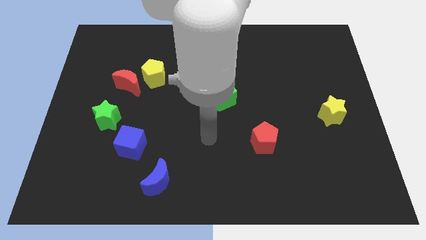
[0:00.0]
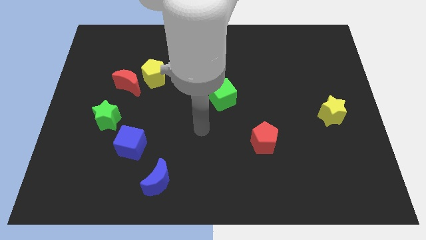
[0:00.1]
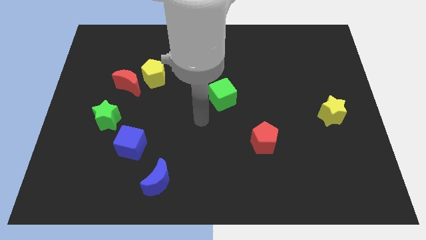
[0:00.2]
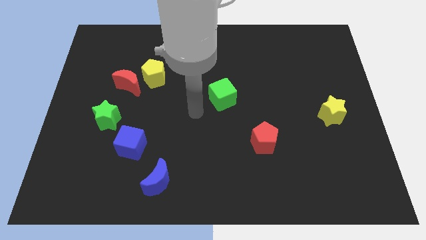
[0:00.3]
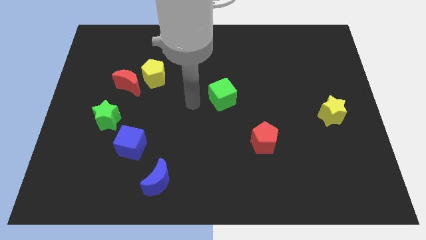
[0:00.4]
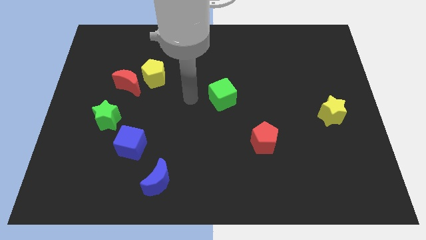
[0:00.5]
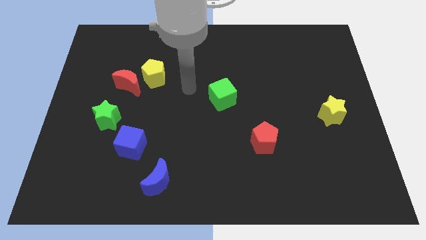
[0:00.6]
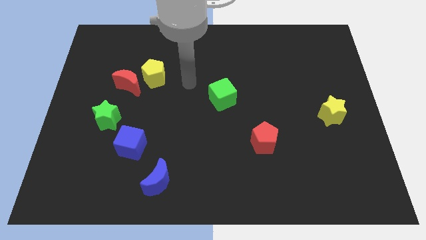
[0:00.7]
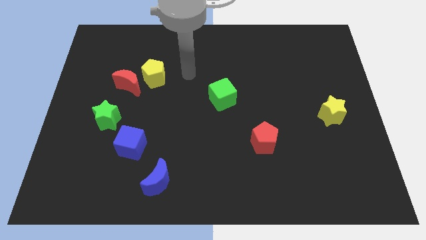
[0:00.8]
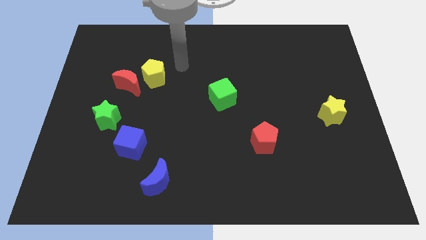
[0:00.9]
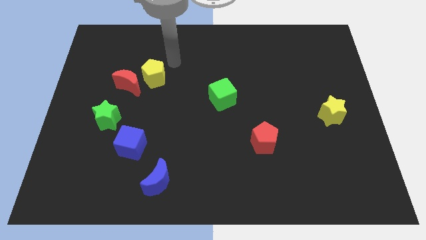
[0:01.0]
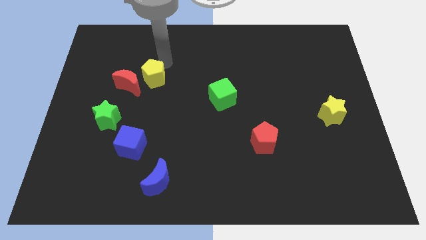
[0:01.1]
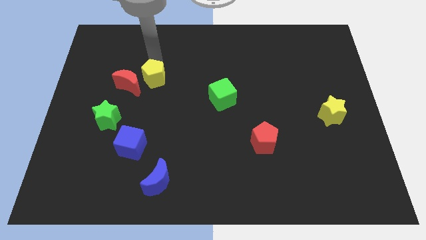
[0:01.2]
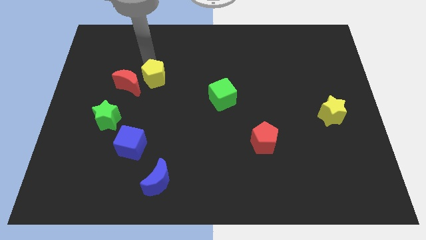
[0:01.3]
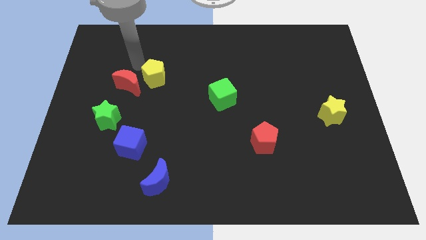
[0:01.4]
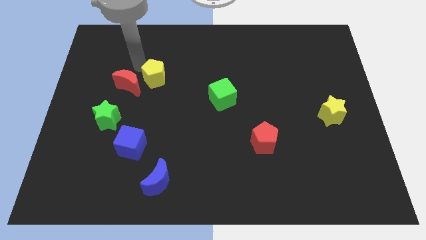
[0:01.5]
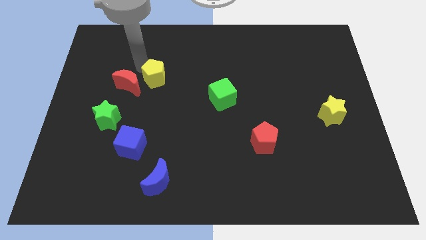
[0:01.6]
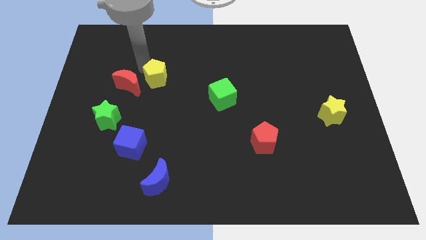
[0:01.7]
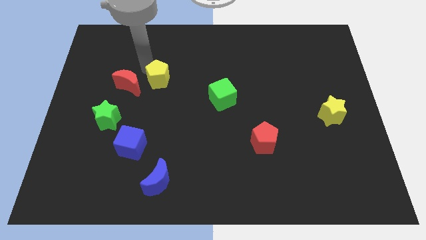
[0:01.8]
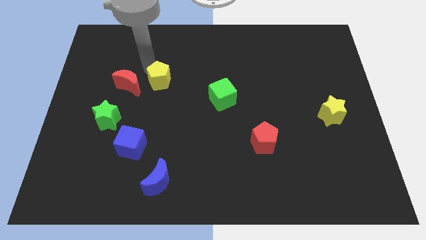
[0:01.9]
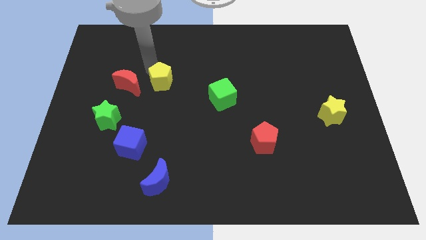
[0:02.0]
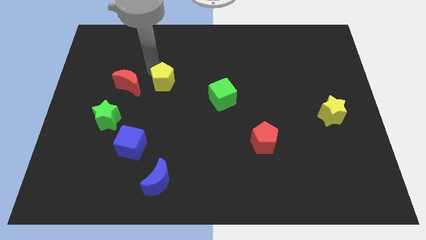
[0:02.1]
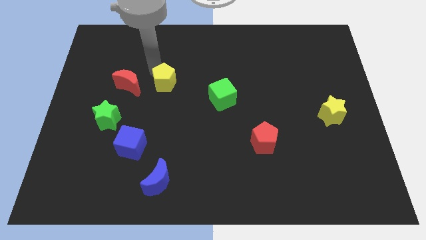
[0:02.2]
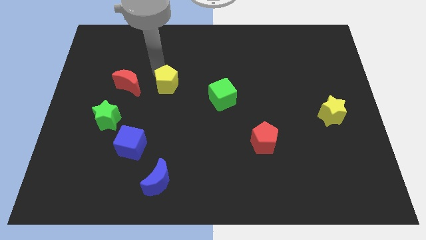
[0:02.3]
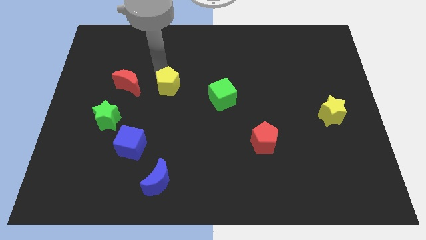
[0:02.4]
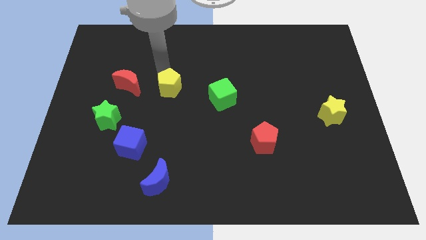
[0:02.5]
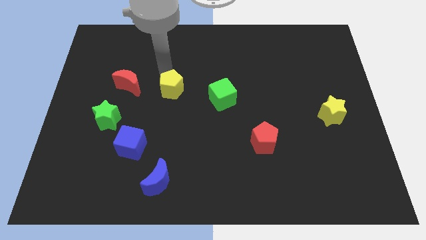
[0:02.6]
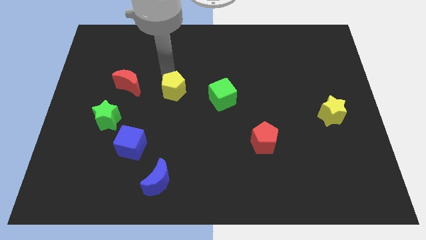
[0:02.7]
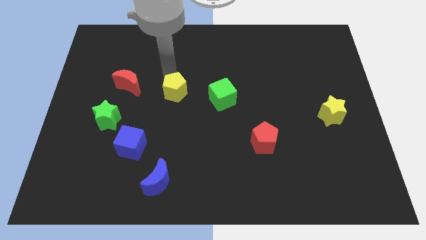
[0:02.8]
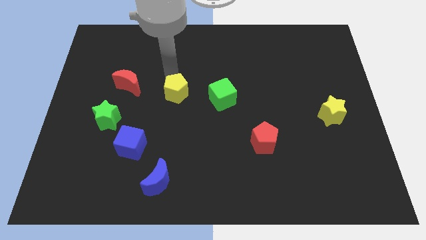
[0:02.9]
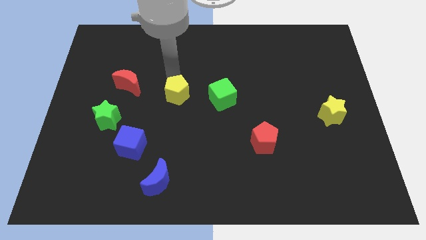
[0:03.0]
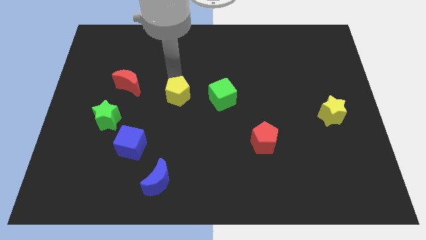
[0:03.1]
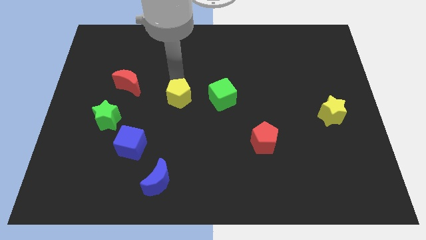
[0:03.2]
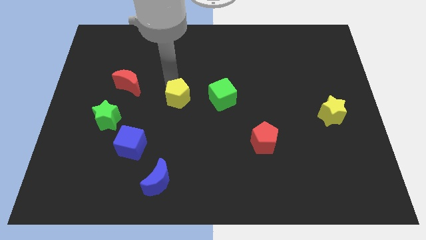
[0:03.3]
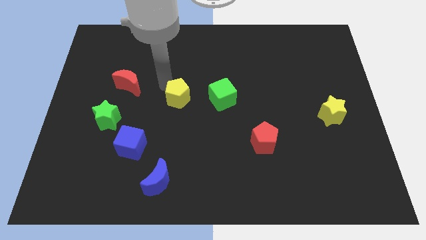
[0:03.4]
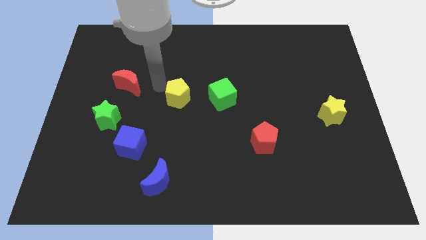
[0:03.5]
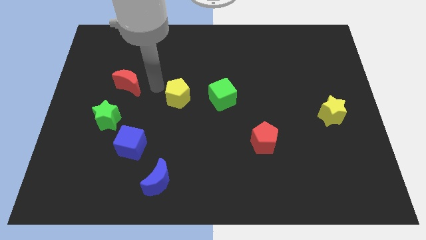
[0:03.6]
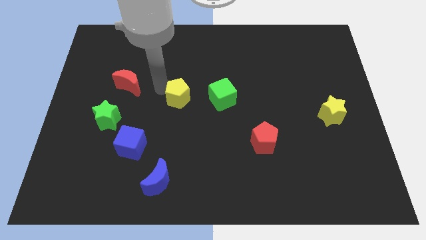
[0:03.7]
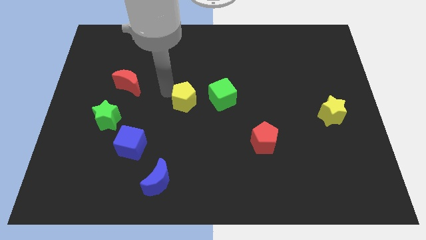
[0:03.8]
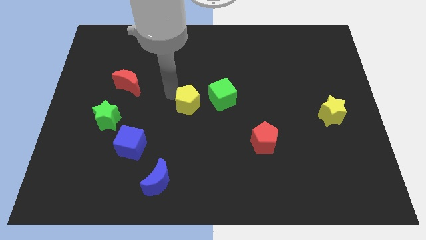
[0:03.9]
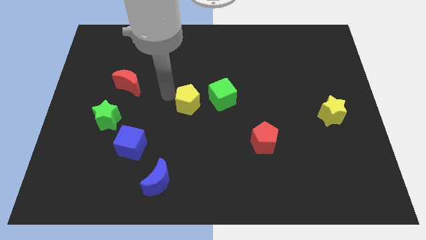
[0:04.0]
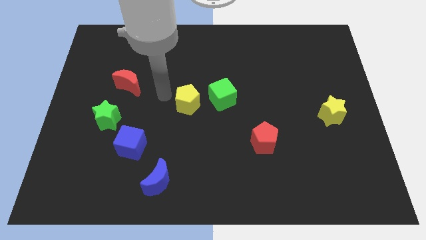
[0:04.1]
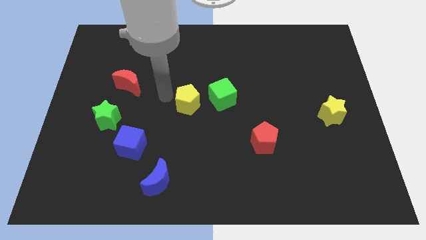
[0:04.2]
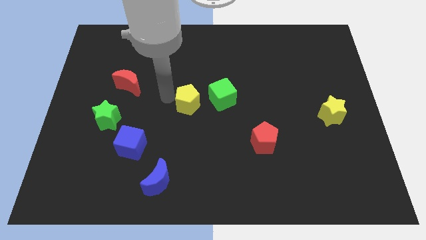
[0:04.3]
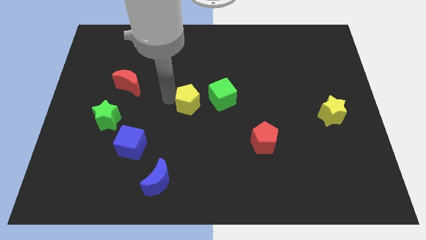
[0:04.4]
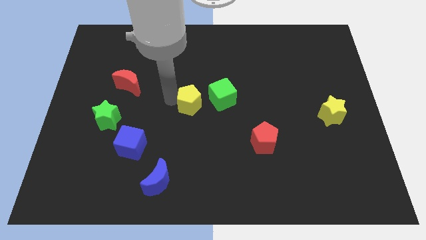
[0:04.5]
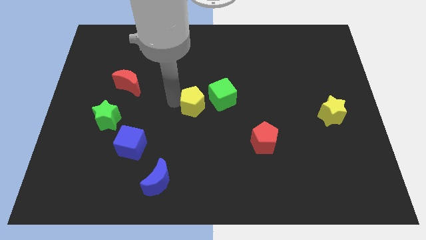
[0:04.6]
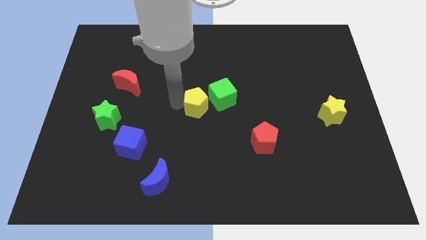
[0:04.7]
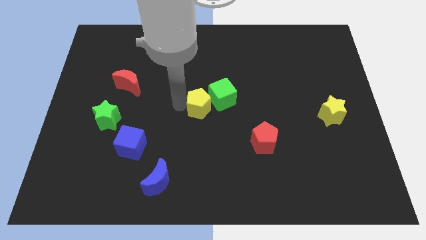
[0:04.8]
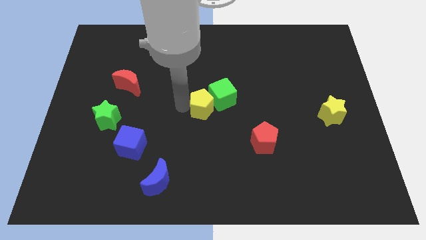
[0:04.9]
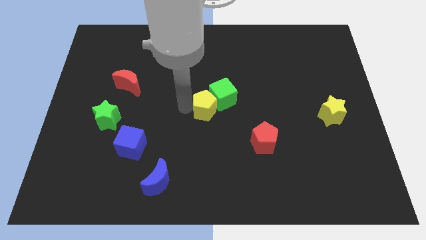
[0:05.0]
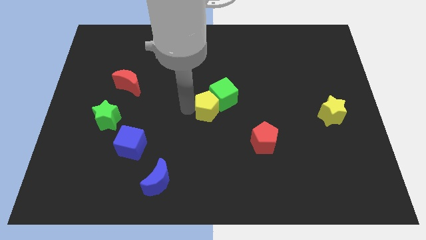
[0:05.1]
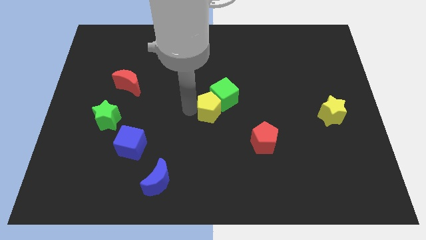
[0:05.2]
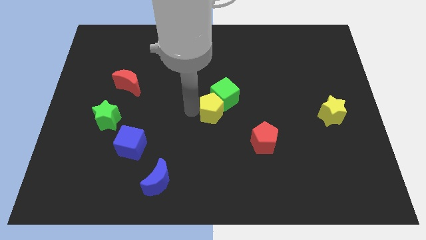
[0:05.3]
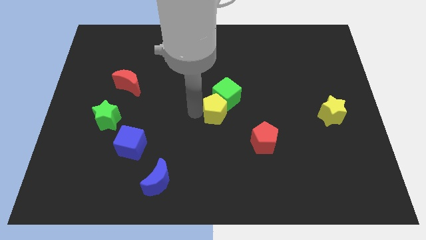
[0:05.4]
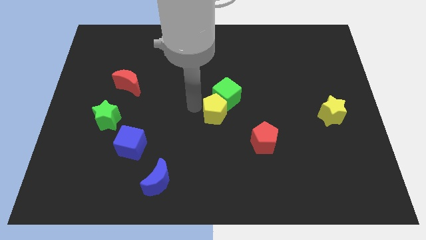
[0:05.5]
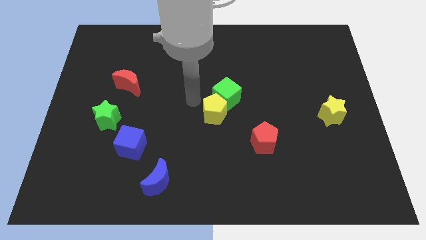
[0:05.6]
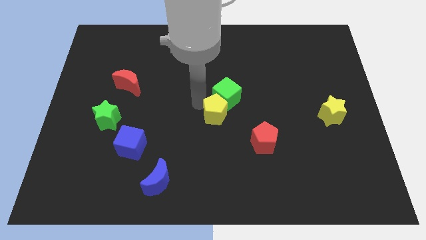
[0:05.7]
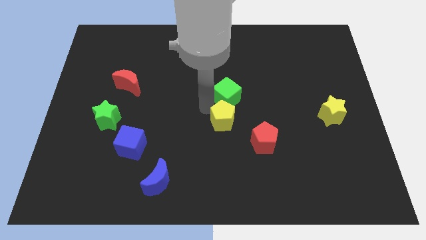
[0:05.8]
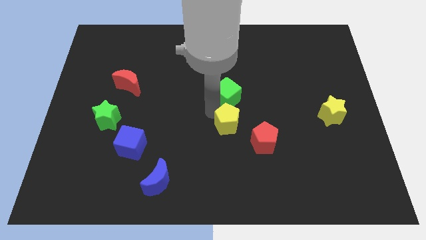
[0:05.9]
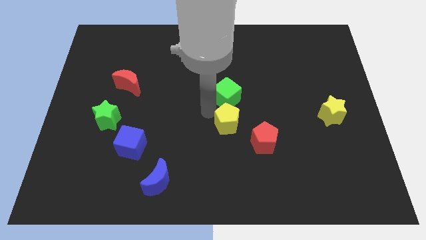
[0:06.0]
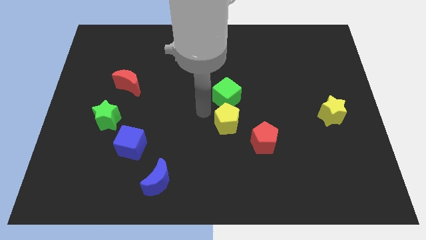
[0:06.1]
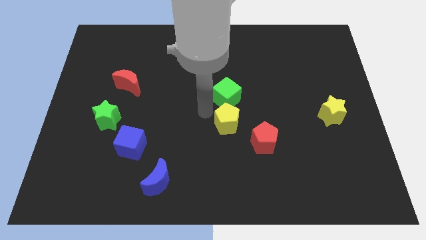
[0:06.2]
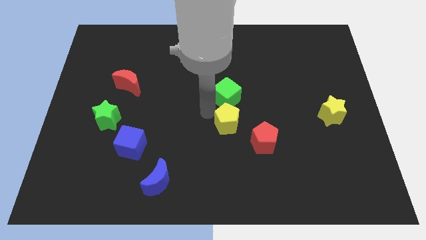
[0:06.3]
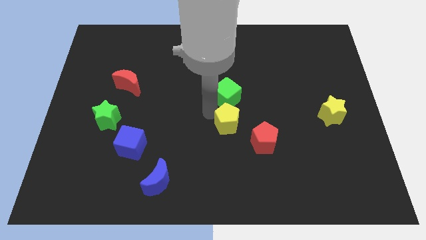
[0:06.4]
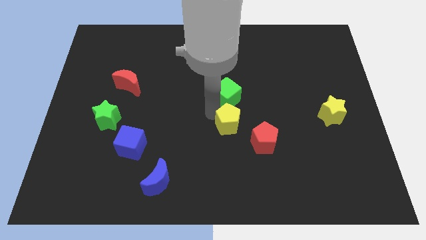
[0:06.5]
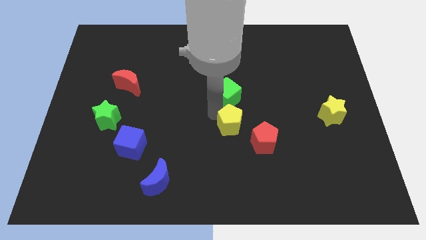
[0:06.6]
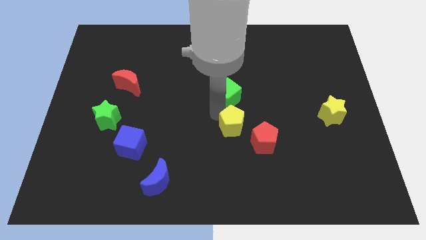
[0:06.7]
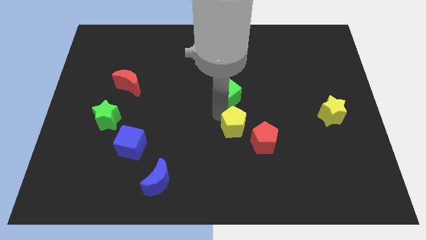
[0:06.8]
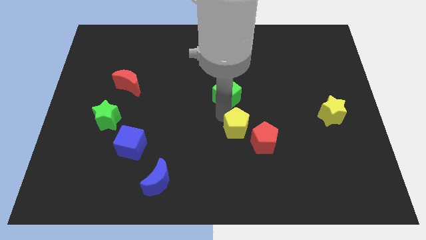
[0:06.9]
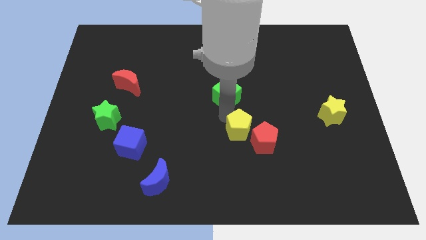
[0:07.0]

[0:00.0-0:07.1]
move the yellow pentagon towards the red pentagon

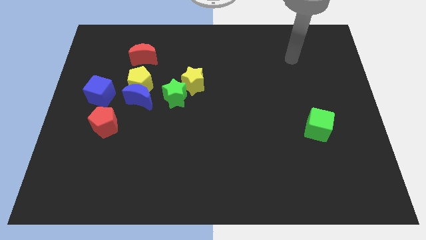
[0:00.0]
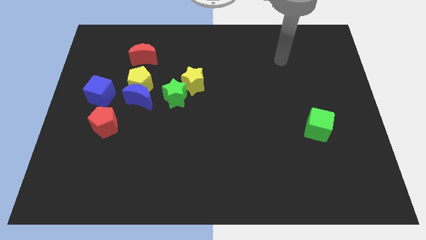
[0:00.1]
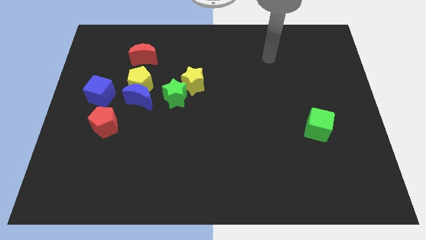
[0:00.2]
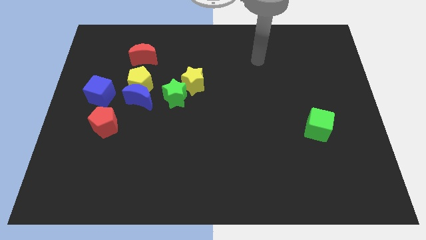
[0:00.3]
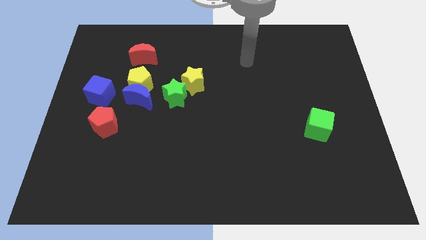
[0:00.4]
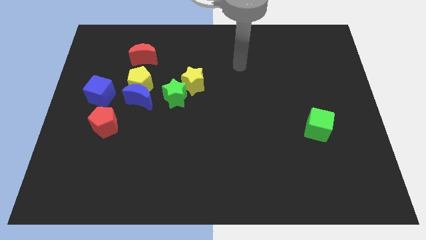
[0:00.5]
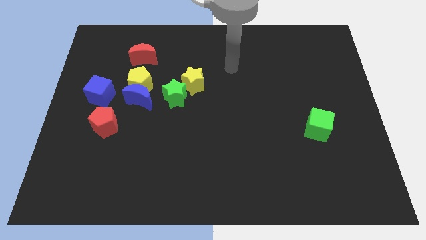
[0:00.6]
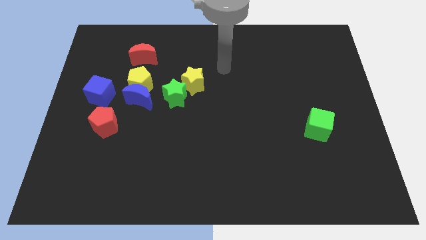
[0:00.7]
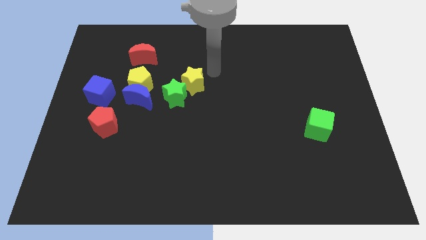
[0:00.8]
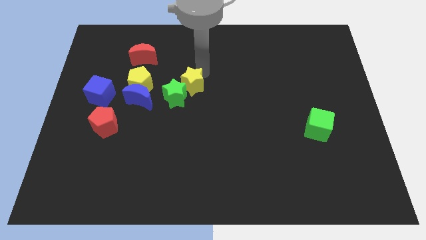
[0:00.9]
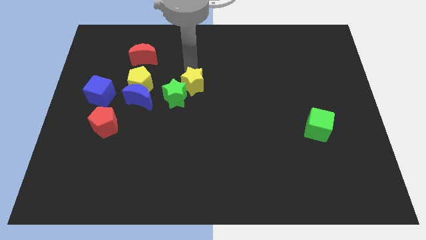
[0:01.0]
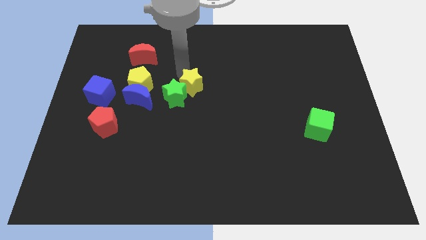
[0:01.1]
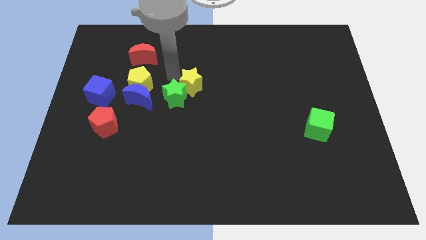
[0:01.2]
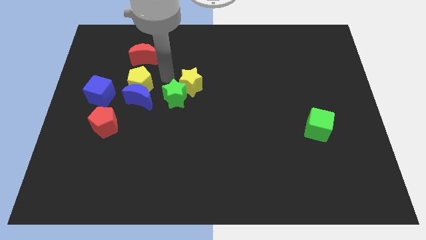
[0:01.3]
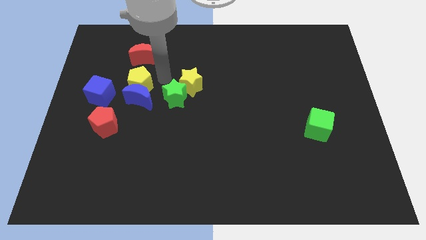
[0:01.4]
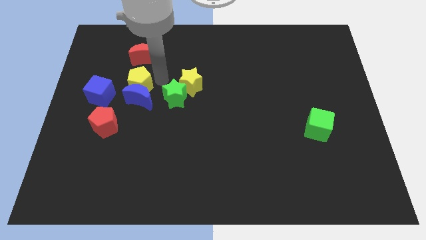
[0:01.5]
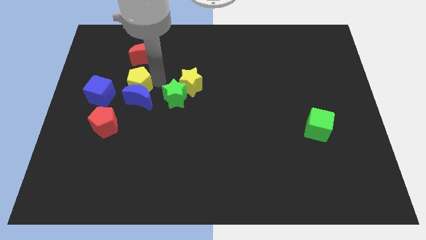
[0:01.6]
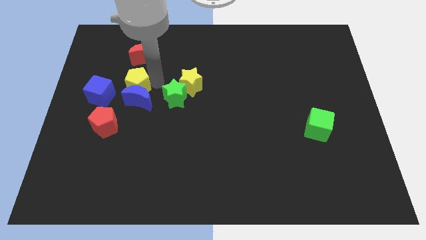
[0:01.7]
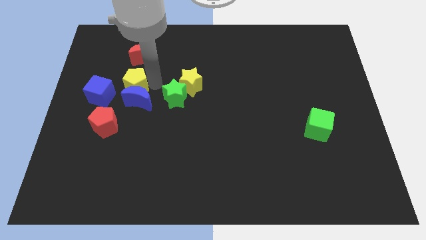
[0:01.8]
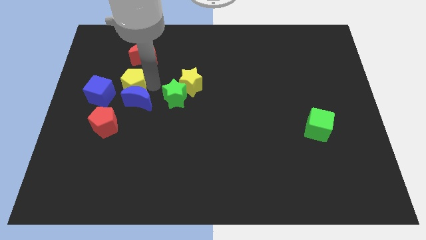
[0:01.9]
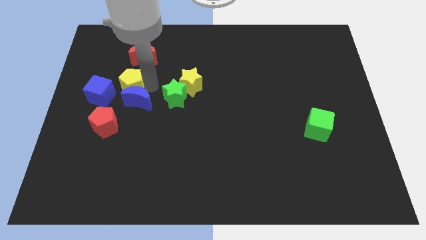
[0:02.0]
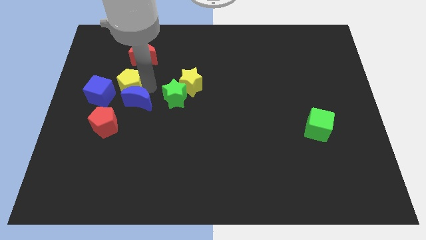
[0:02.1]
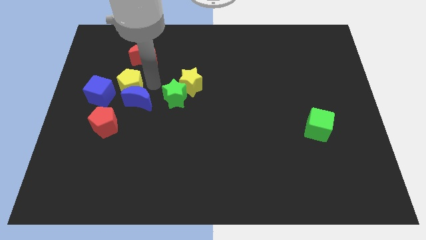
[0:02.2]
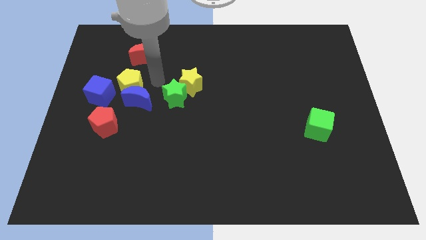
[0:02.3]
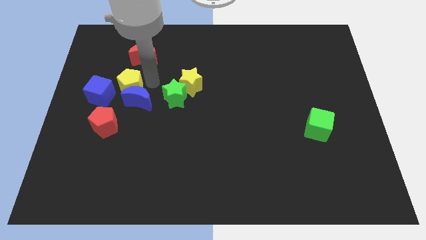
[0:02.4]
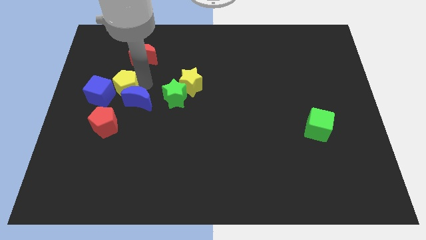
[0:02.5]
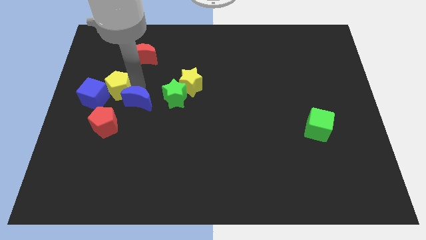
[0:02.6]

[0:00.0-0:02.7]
move the yellow pentagon next to the blue cube
